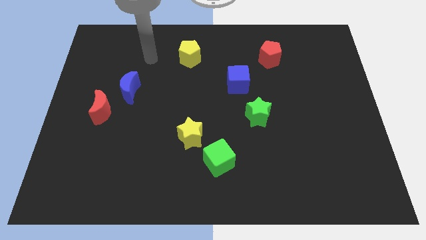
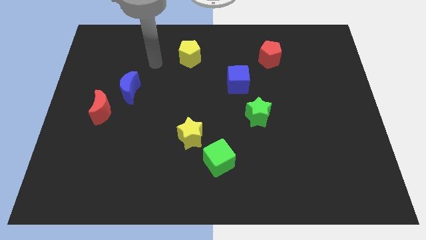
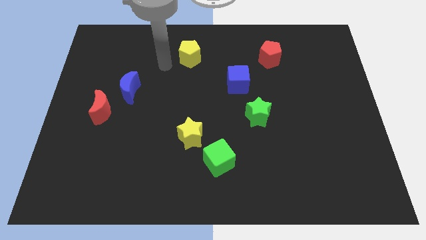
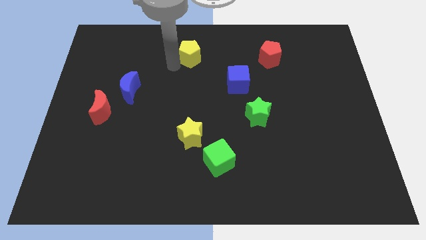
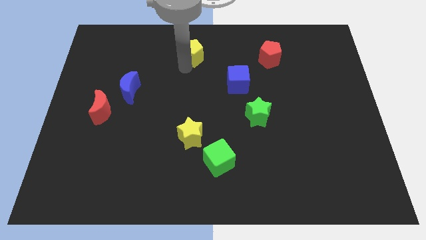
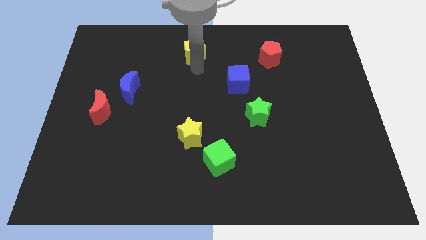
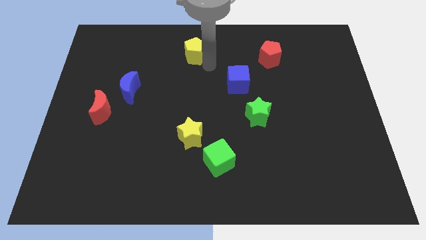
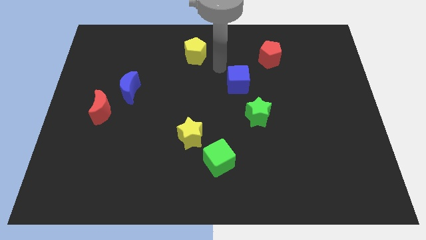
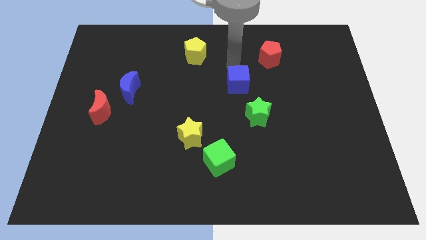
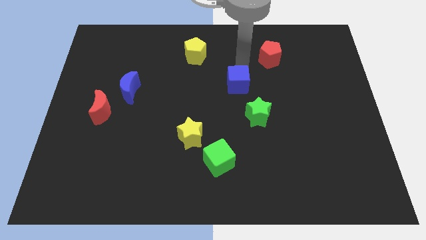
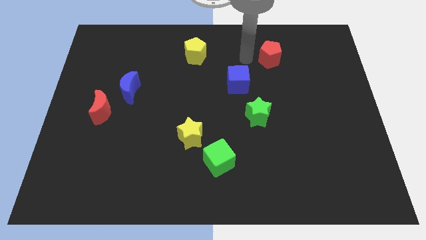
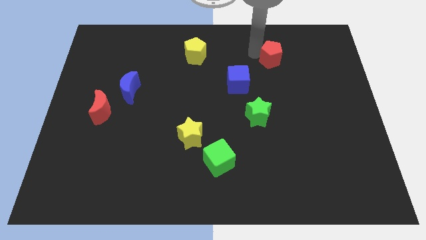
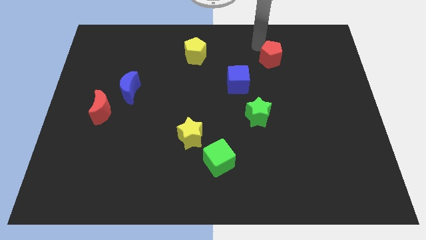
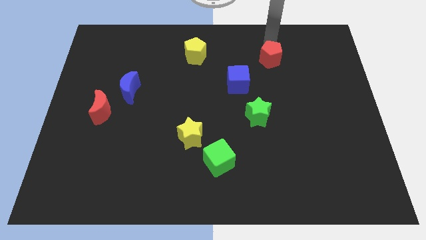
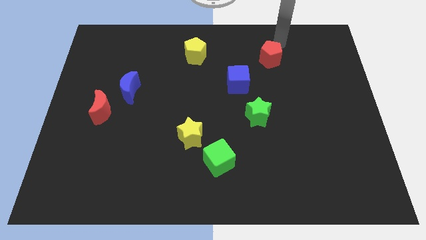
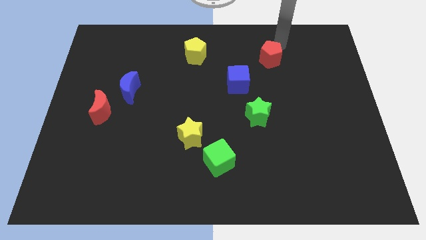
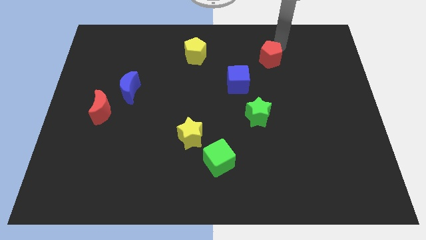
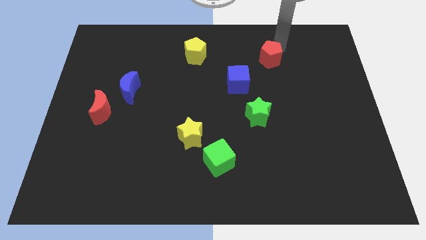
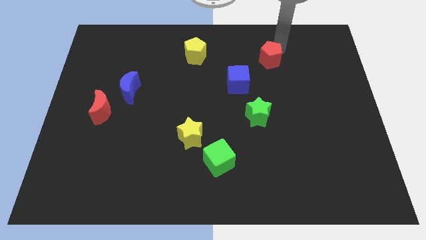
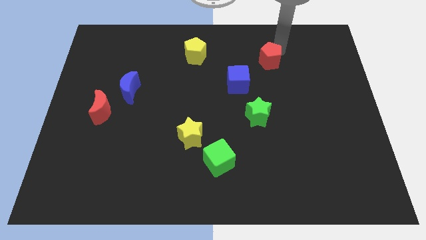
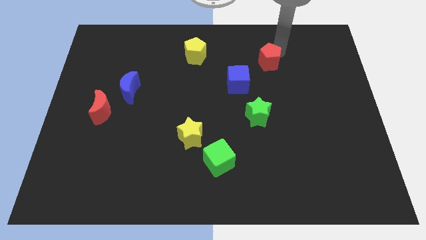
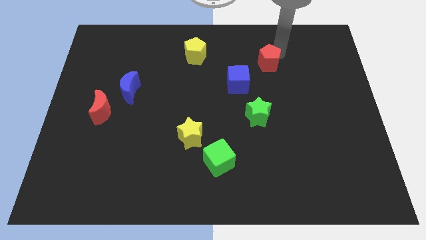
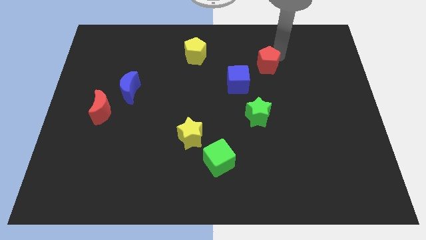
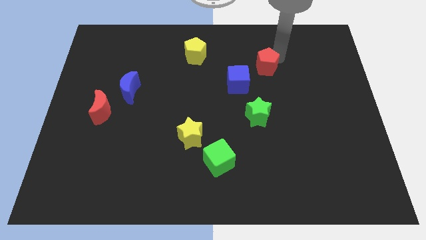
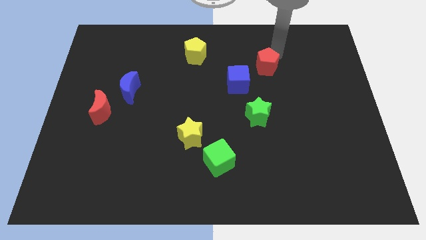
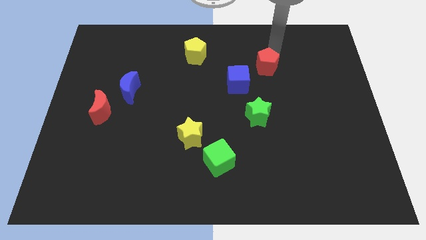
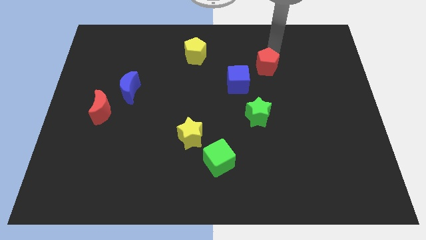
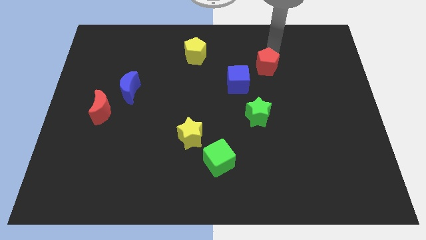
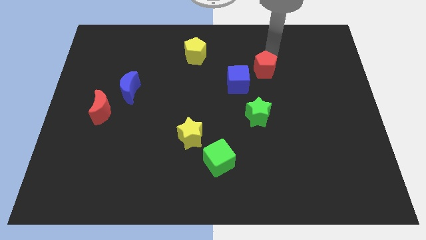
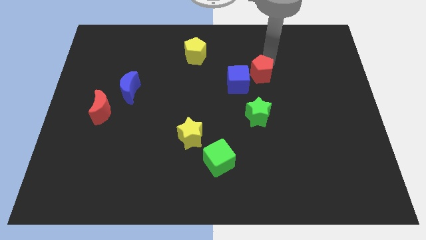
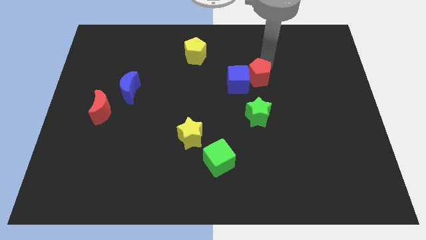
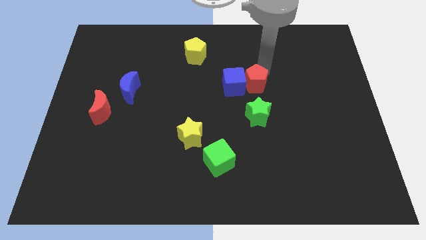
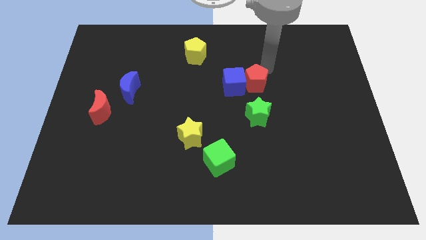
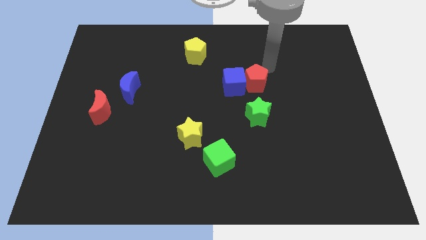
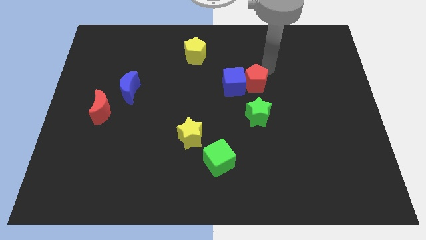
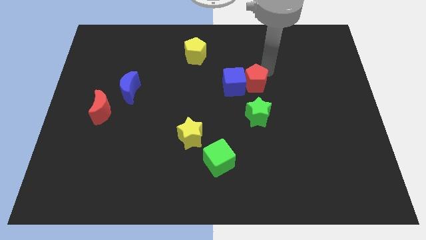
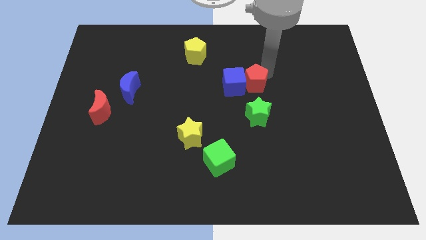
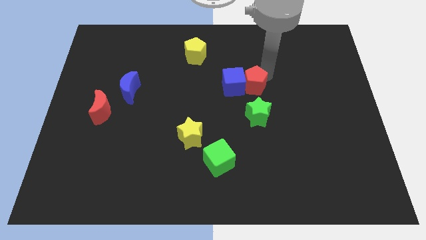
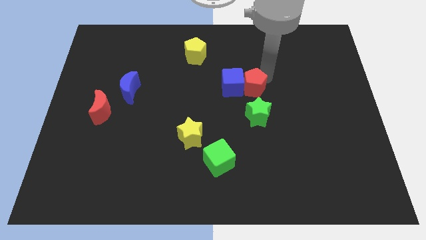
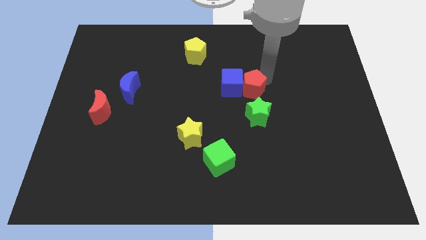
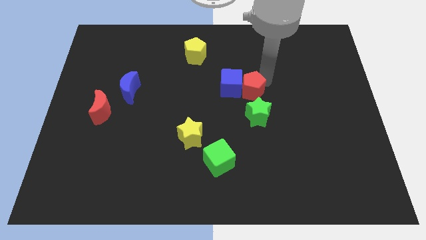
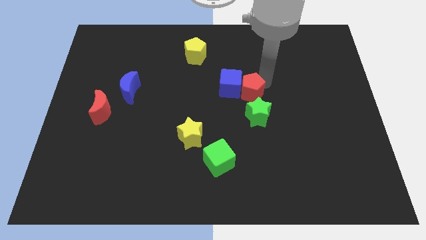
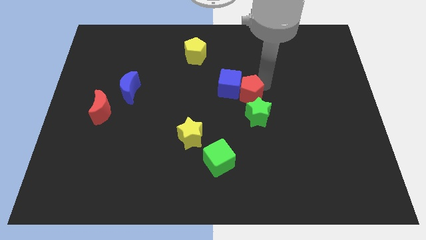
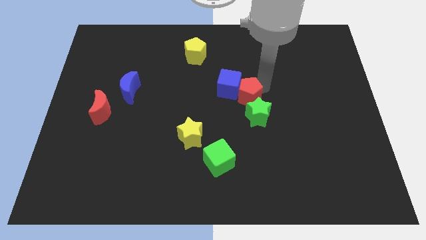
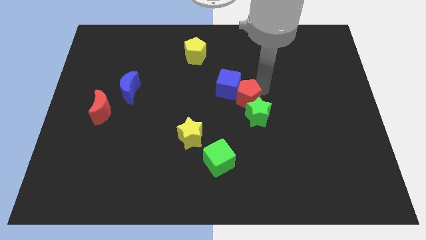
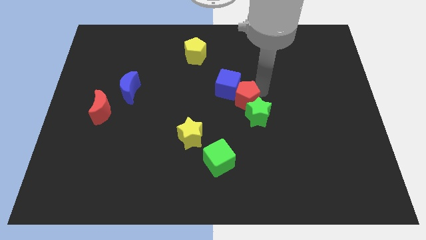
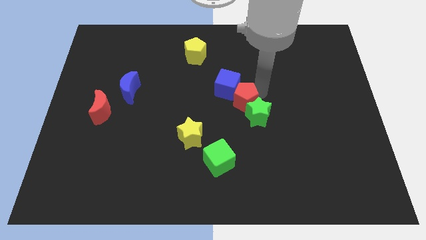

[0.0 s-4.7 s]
push the red pentagon just left of the green star

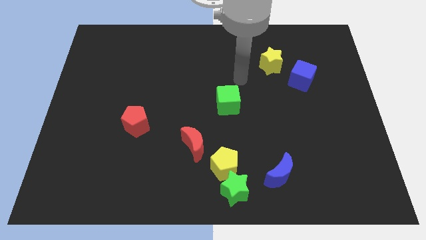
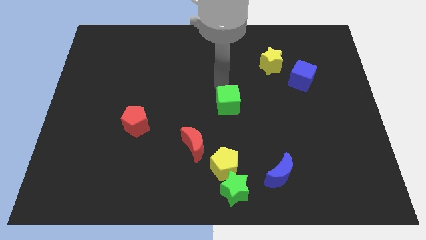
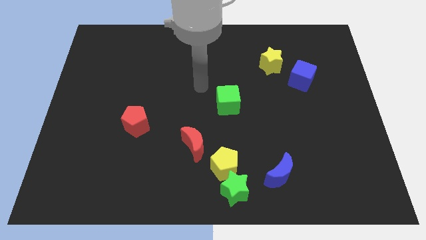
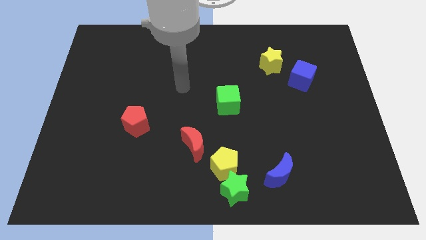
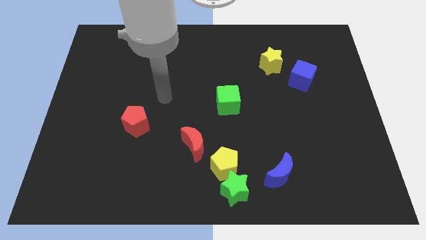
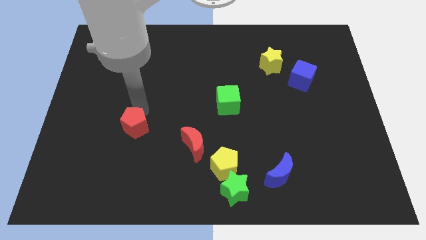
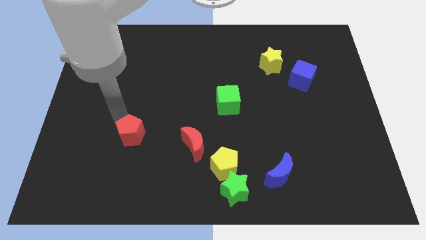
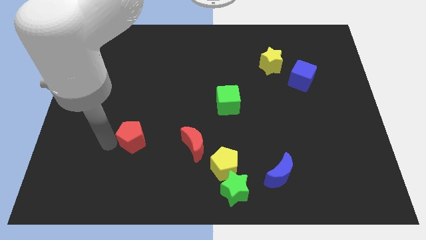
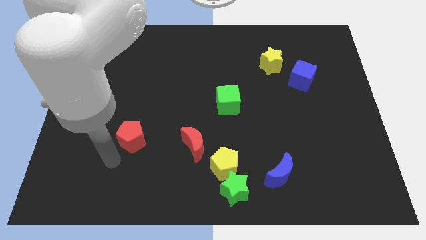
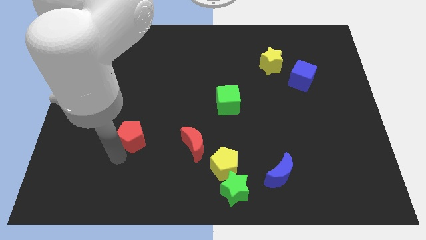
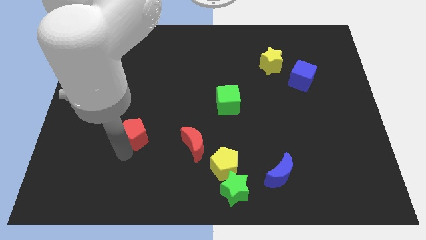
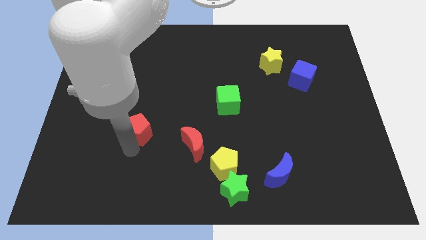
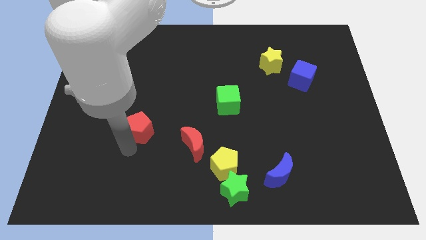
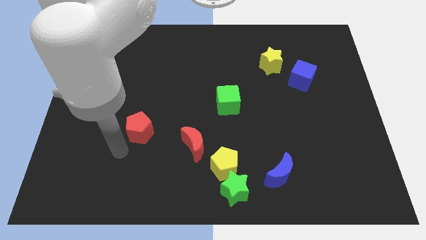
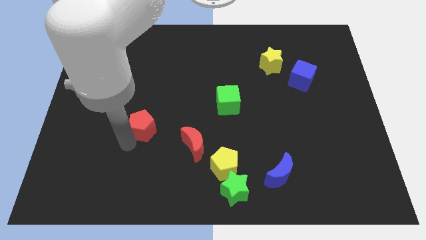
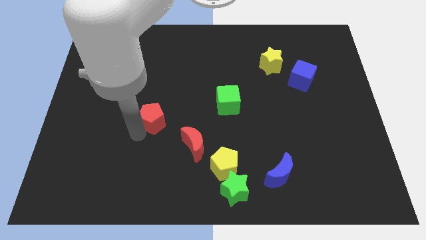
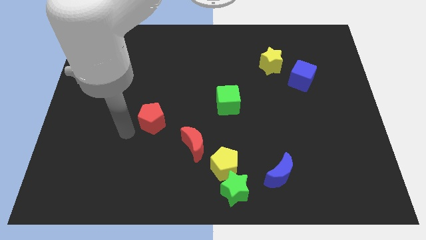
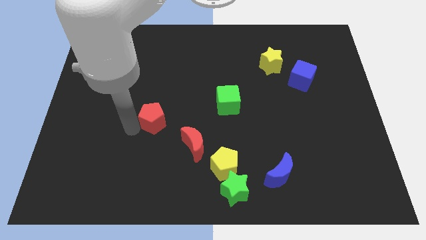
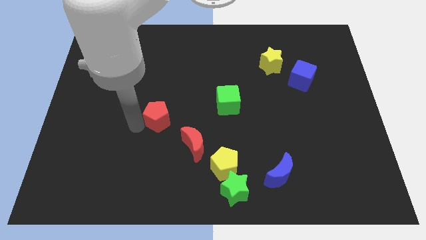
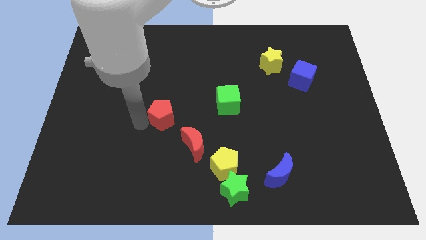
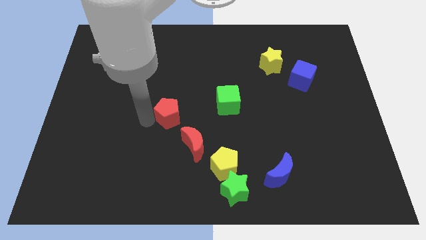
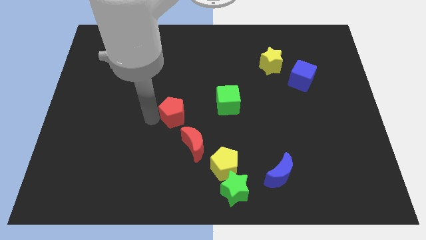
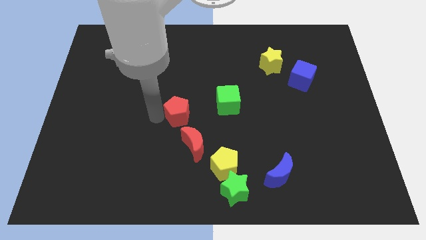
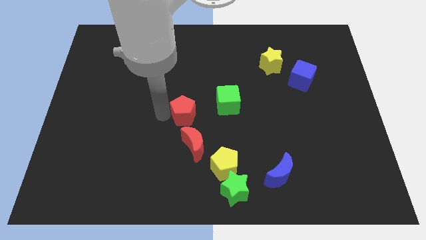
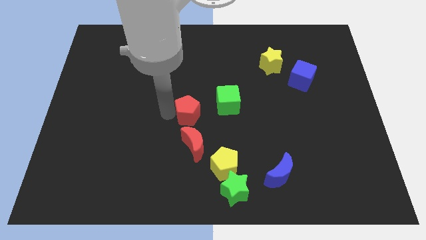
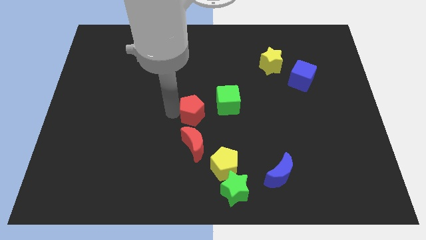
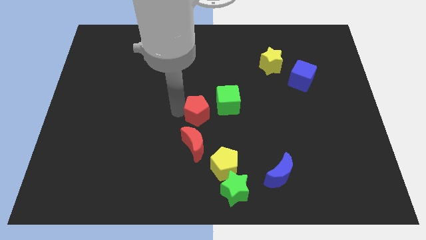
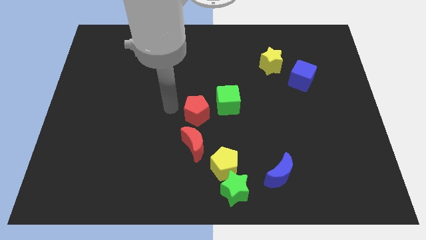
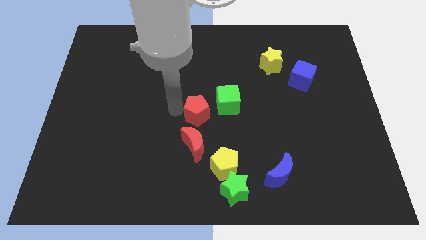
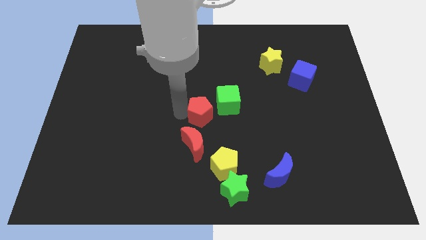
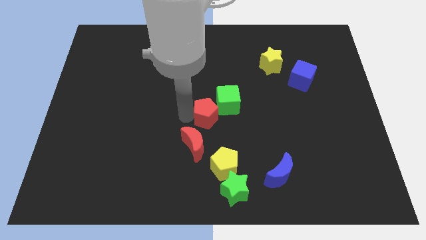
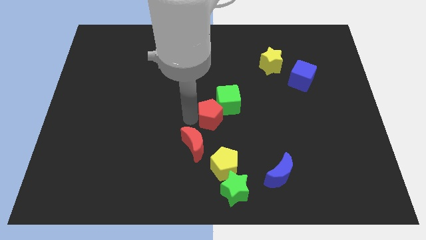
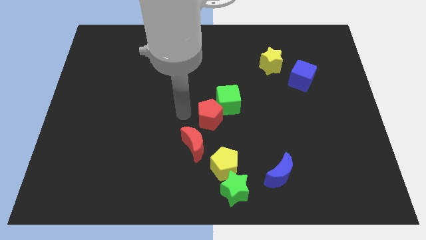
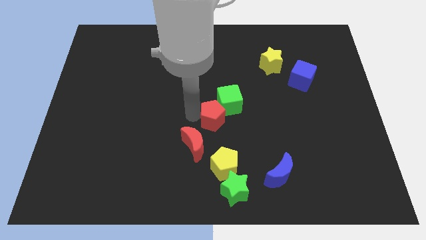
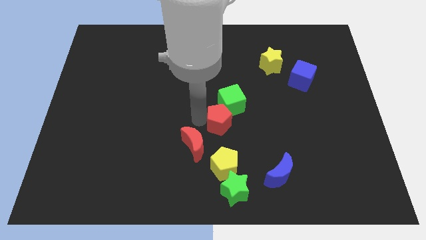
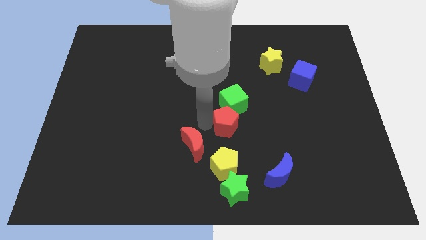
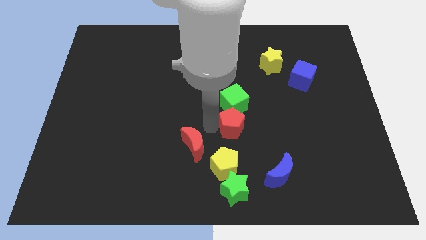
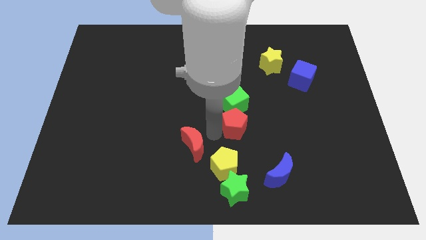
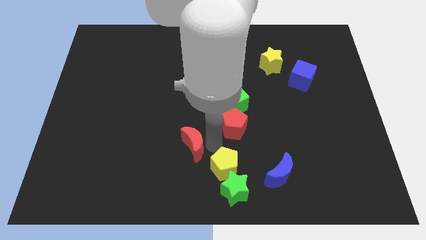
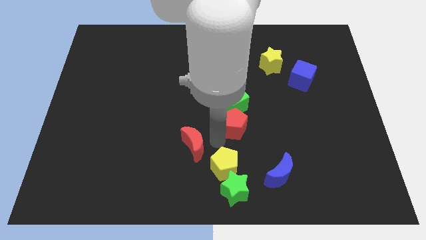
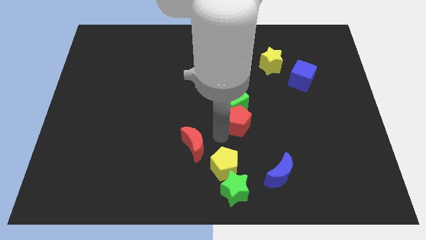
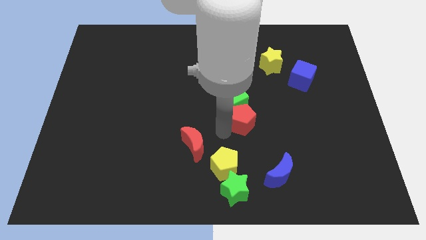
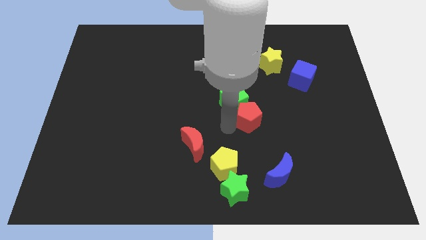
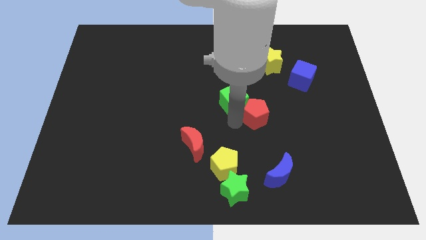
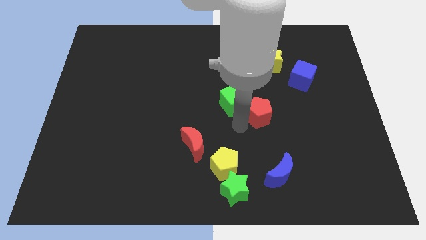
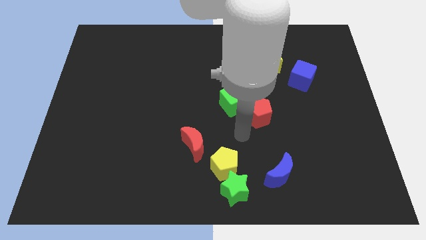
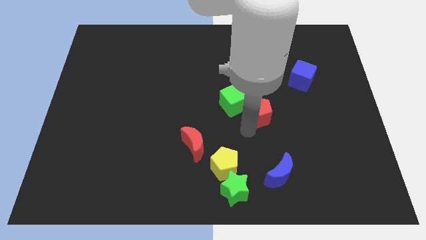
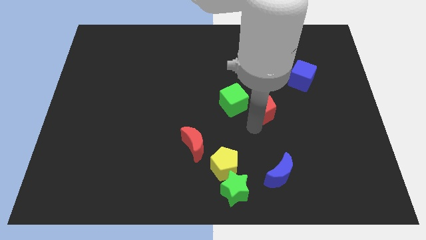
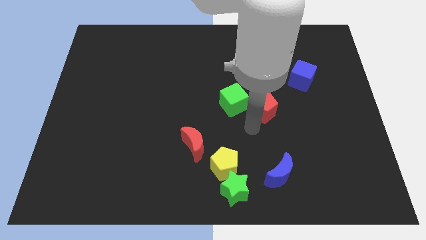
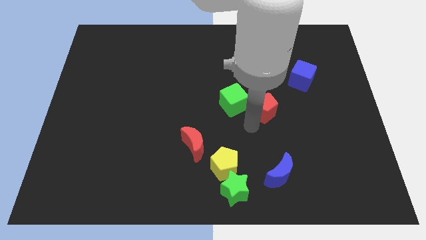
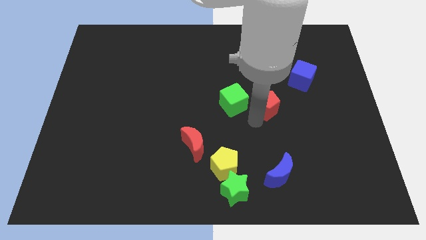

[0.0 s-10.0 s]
slide the red pentagon to the bottom of the yellow star
